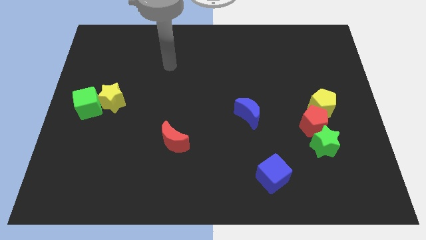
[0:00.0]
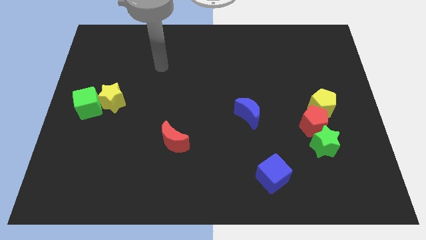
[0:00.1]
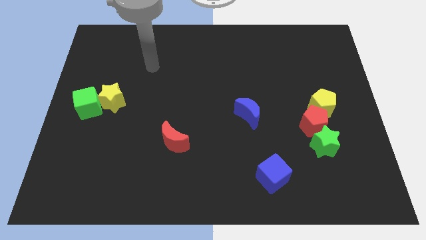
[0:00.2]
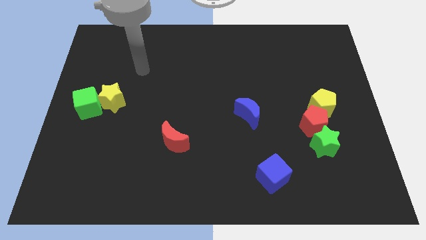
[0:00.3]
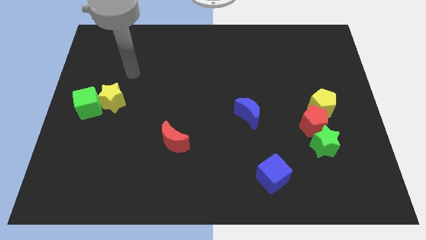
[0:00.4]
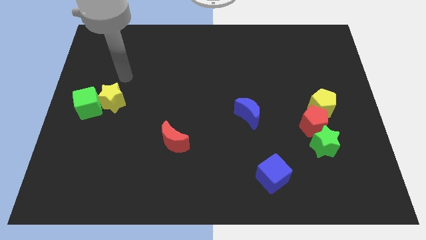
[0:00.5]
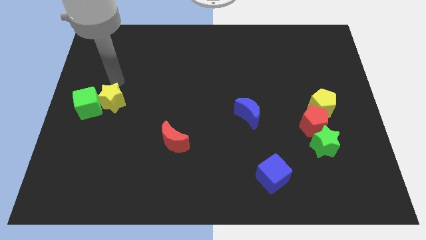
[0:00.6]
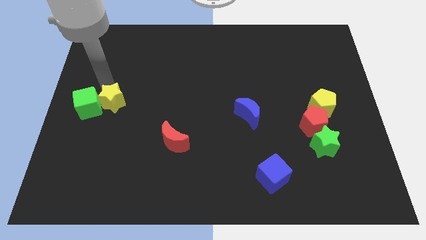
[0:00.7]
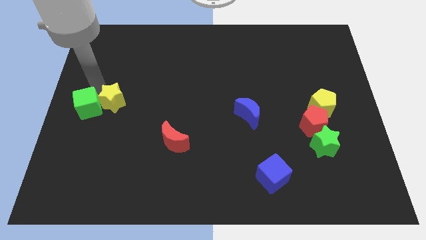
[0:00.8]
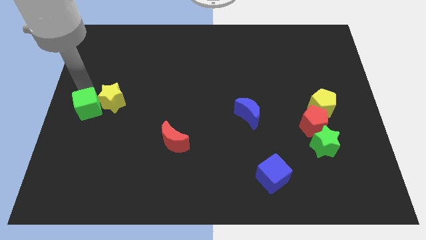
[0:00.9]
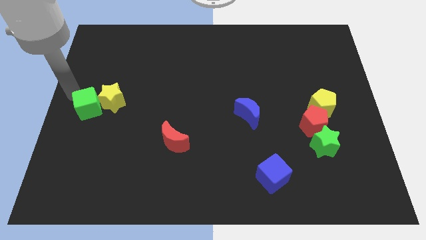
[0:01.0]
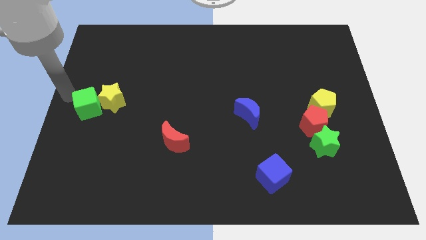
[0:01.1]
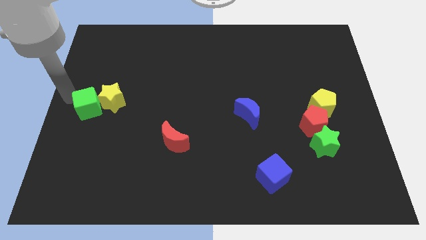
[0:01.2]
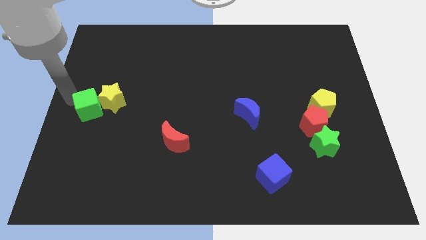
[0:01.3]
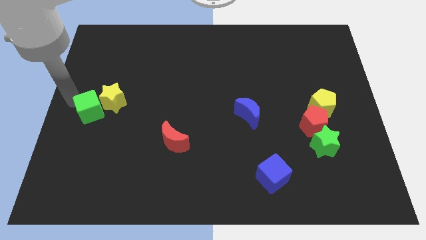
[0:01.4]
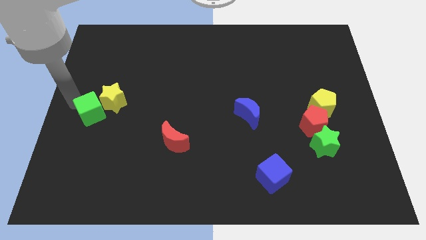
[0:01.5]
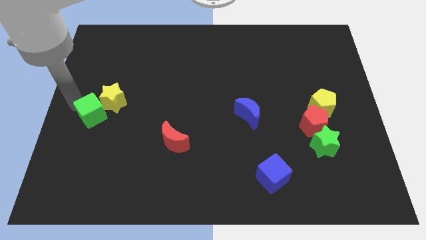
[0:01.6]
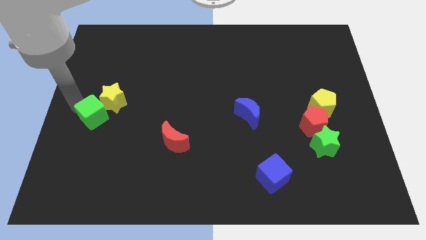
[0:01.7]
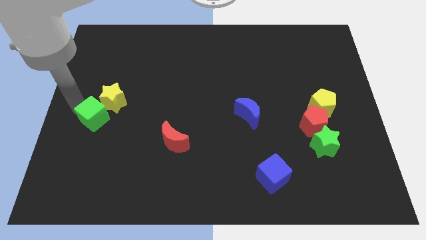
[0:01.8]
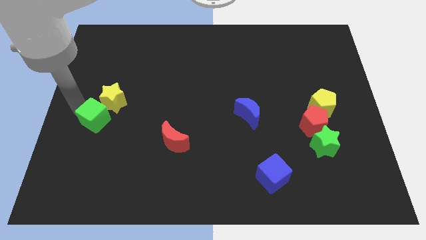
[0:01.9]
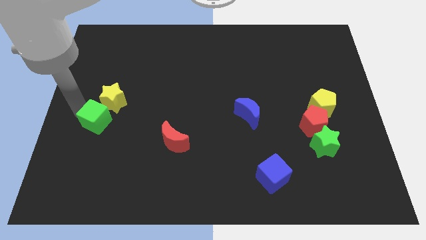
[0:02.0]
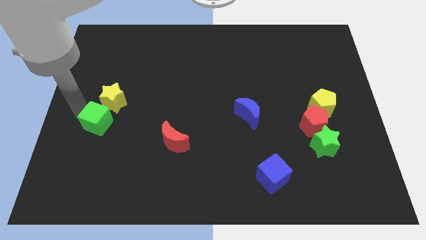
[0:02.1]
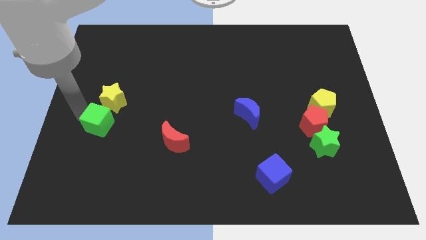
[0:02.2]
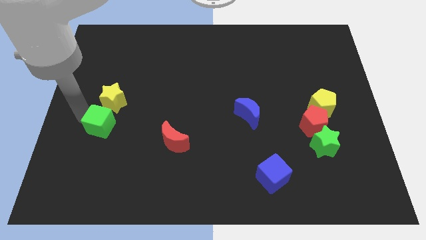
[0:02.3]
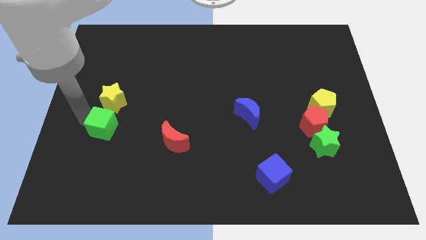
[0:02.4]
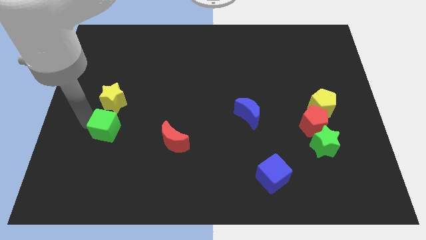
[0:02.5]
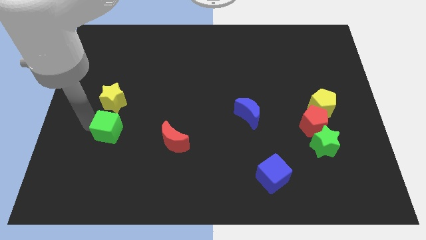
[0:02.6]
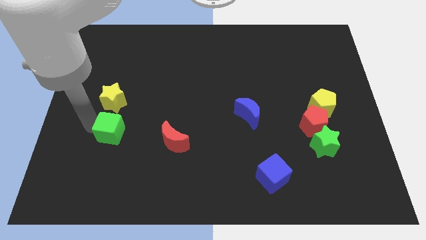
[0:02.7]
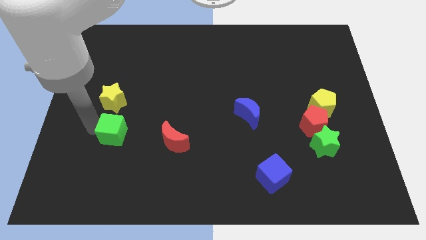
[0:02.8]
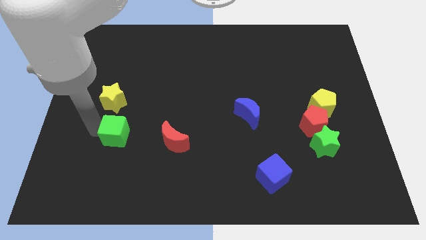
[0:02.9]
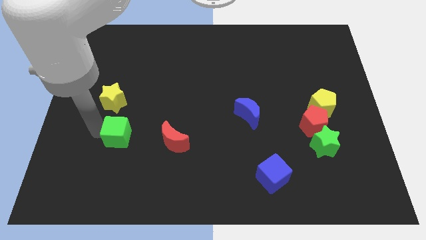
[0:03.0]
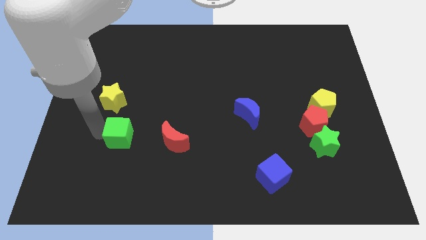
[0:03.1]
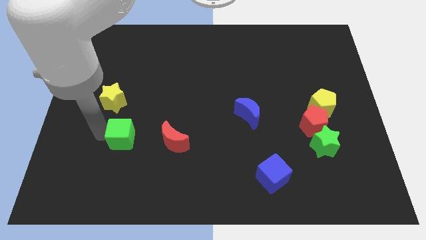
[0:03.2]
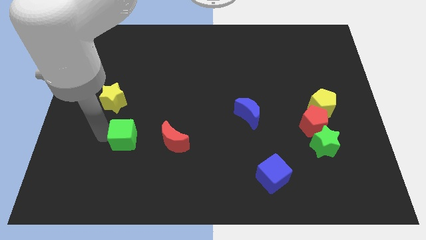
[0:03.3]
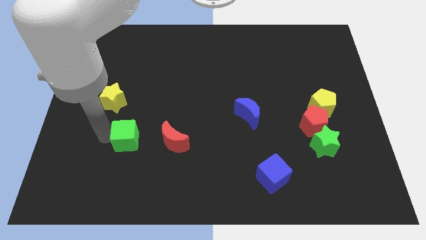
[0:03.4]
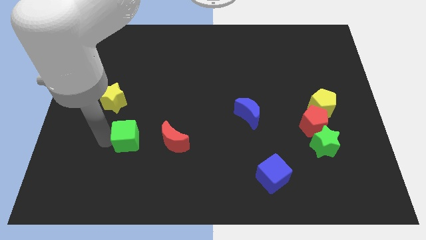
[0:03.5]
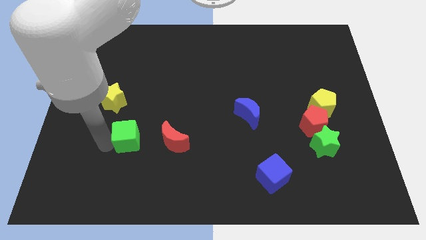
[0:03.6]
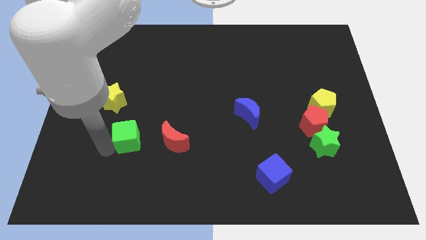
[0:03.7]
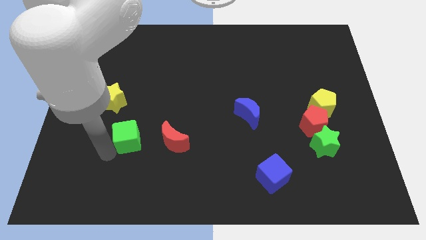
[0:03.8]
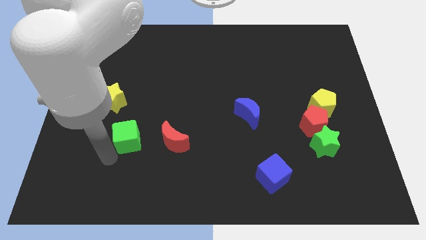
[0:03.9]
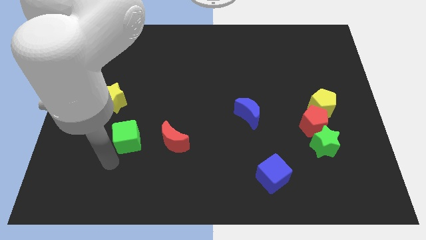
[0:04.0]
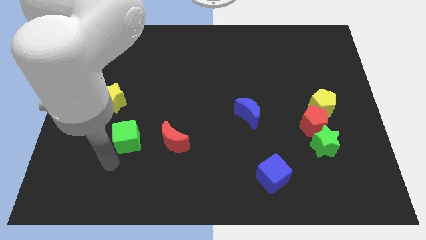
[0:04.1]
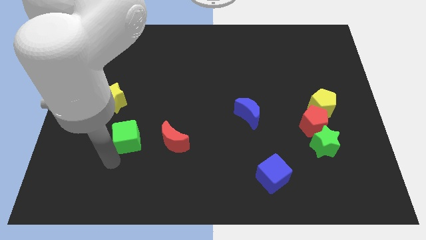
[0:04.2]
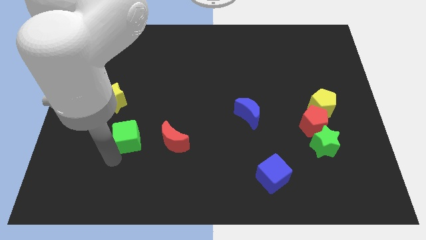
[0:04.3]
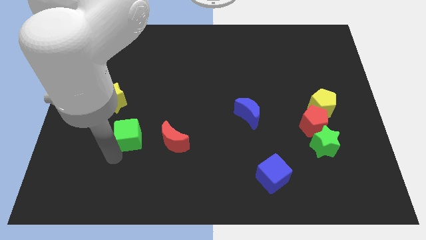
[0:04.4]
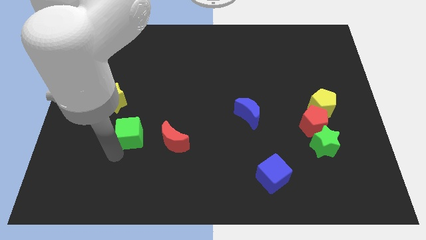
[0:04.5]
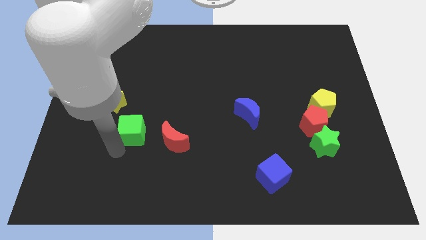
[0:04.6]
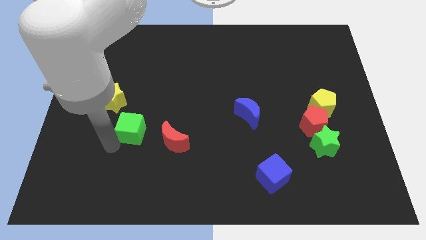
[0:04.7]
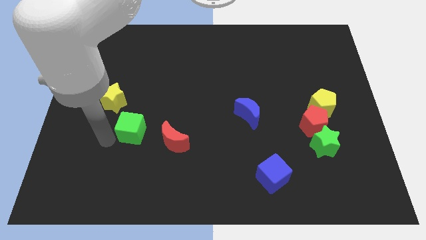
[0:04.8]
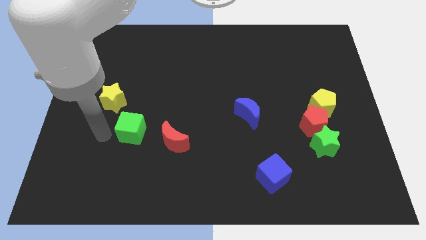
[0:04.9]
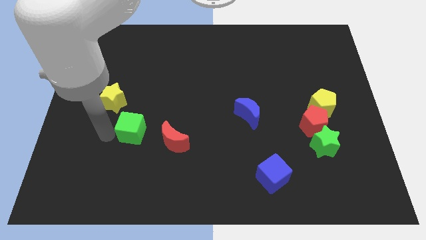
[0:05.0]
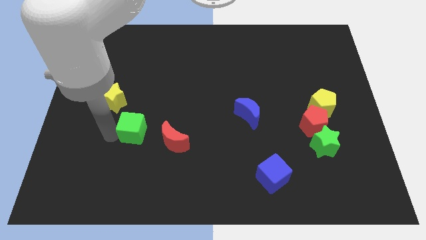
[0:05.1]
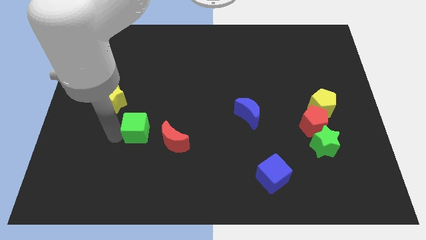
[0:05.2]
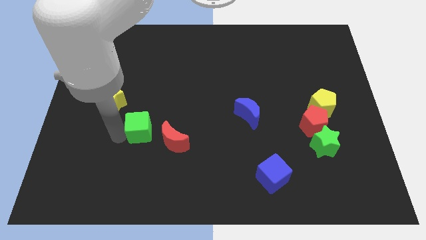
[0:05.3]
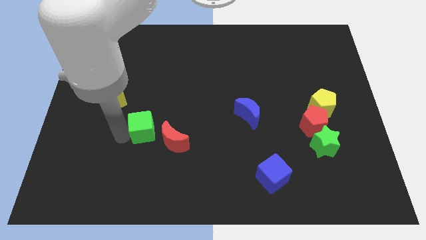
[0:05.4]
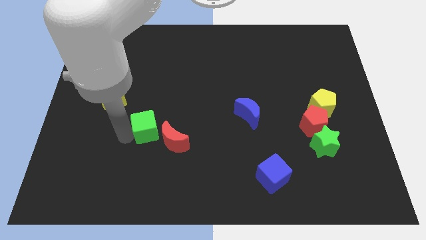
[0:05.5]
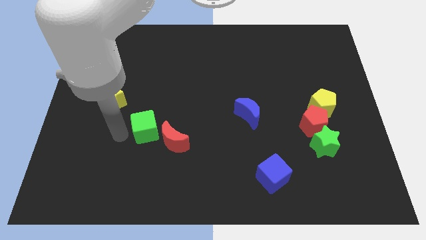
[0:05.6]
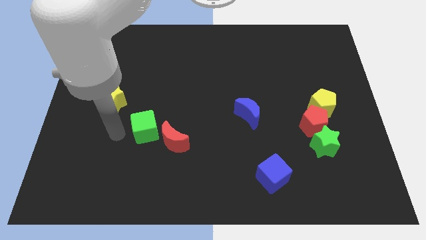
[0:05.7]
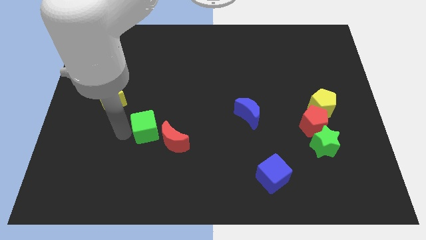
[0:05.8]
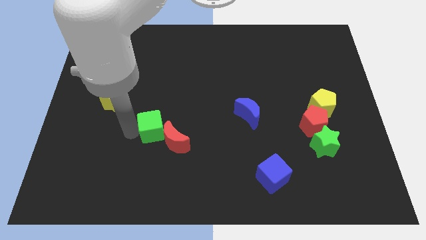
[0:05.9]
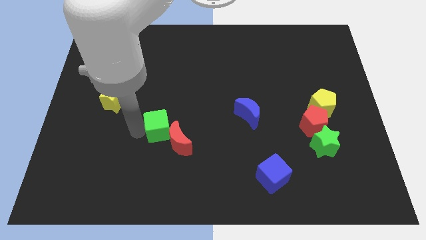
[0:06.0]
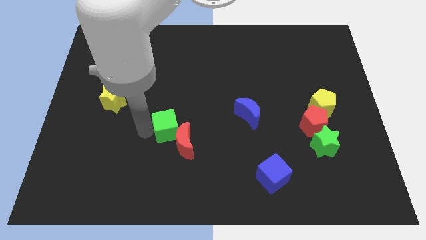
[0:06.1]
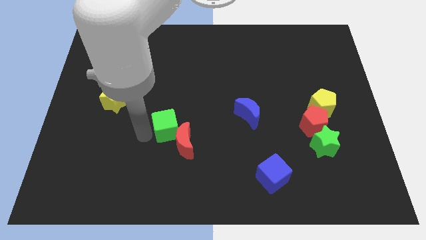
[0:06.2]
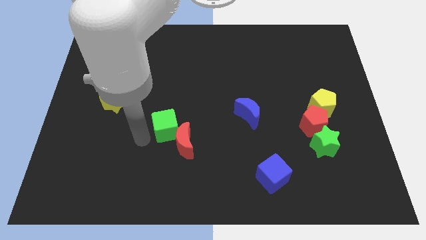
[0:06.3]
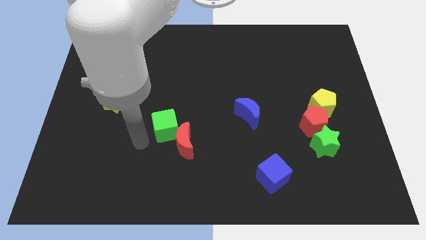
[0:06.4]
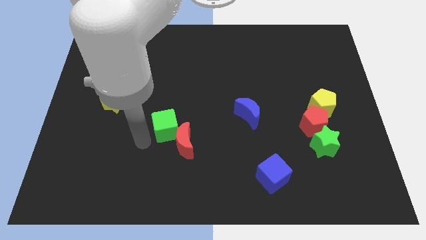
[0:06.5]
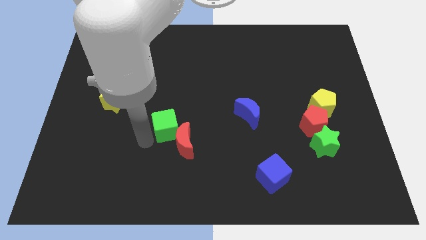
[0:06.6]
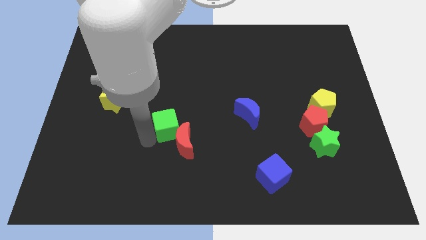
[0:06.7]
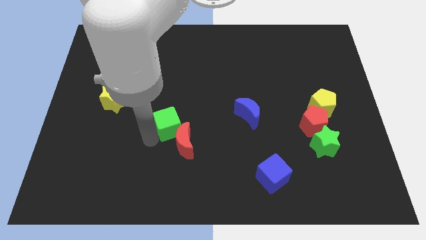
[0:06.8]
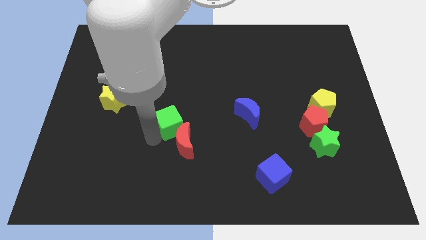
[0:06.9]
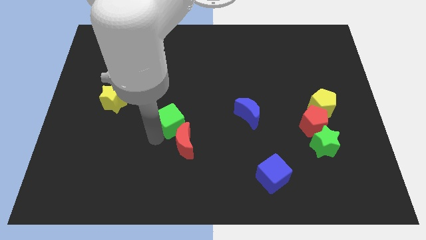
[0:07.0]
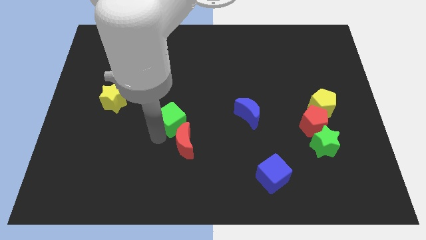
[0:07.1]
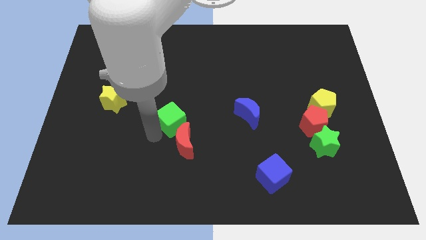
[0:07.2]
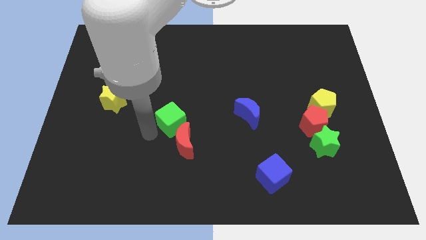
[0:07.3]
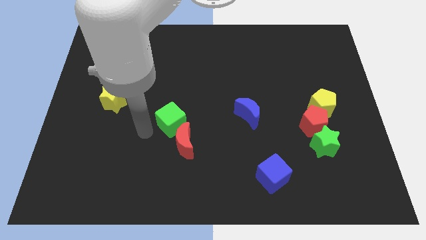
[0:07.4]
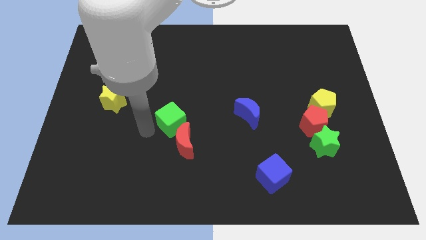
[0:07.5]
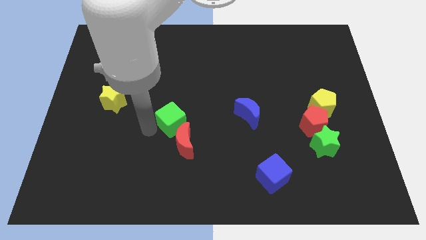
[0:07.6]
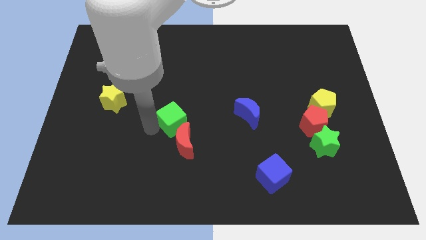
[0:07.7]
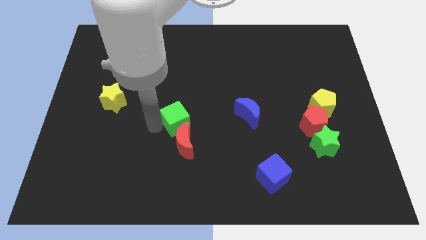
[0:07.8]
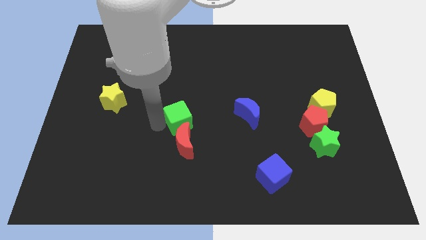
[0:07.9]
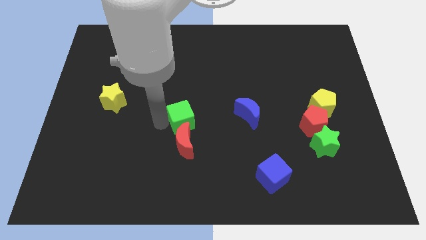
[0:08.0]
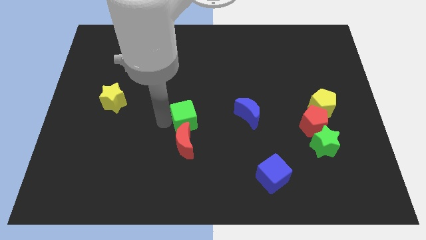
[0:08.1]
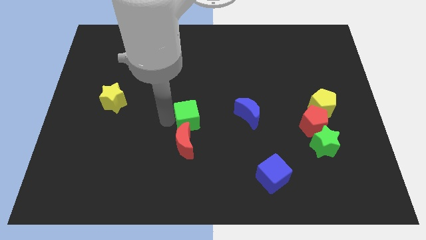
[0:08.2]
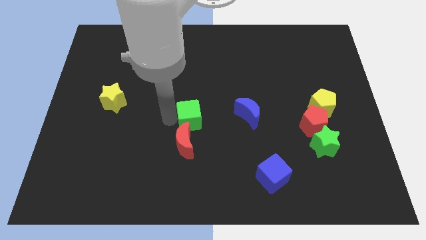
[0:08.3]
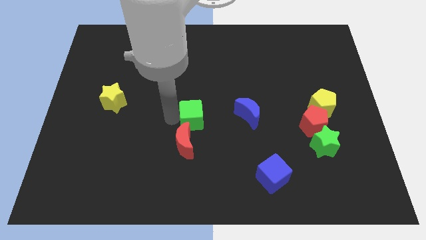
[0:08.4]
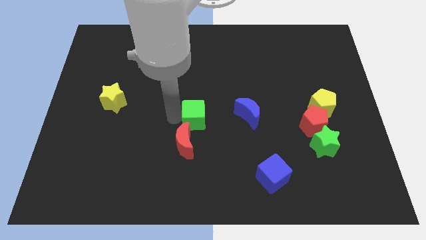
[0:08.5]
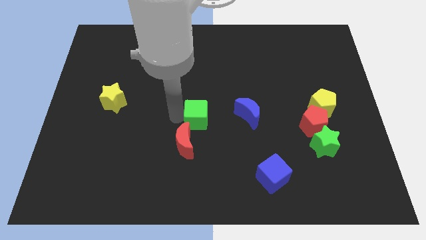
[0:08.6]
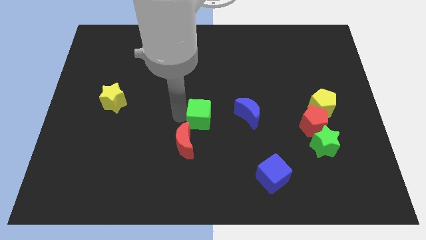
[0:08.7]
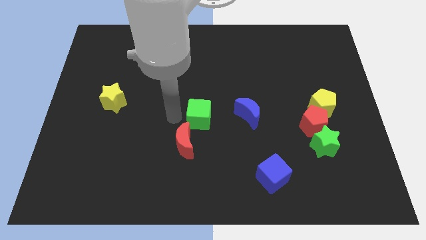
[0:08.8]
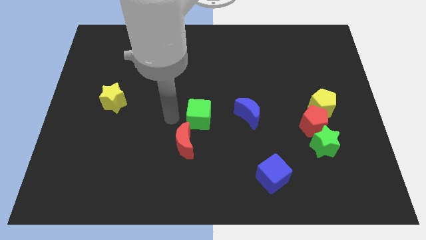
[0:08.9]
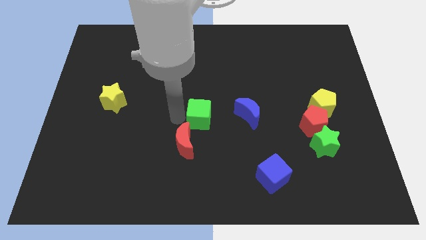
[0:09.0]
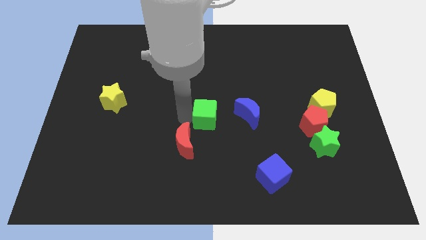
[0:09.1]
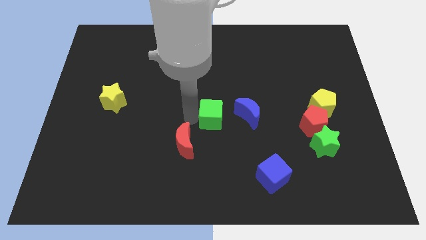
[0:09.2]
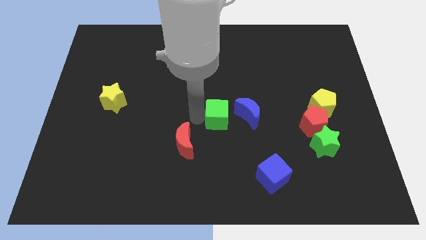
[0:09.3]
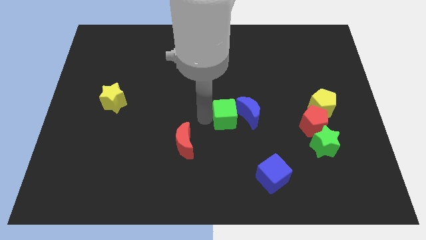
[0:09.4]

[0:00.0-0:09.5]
push the green cube to the blue moon
